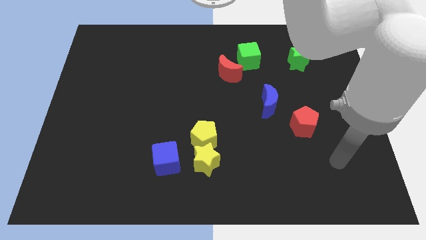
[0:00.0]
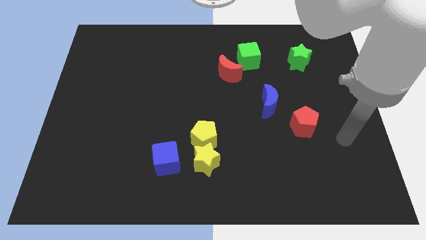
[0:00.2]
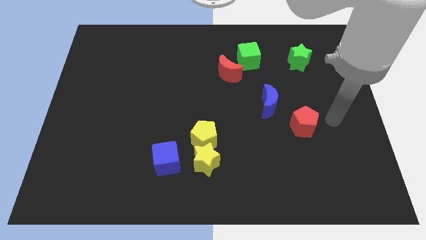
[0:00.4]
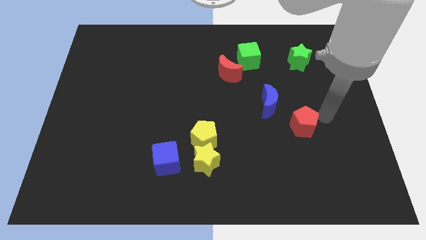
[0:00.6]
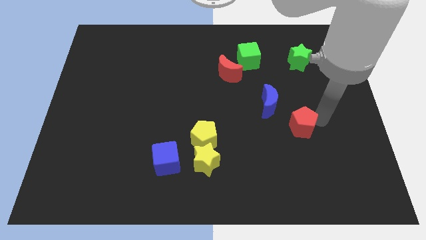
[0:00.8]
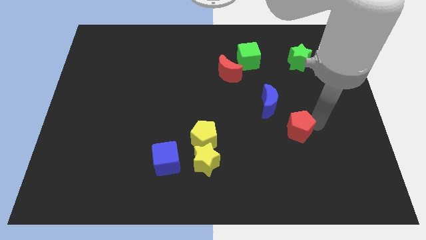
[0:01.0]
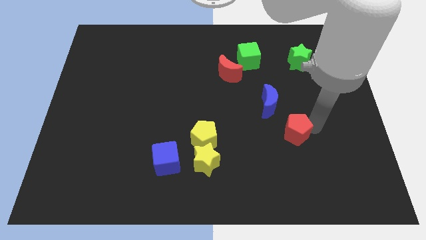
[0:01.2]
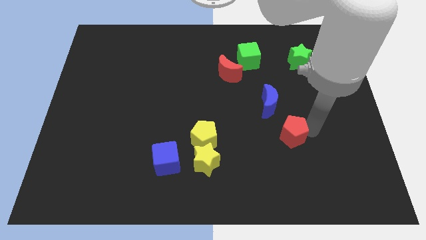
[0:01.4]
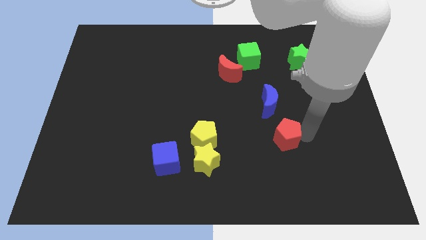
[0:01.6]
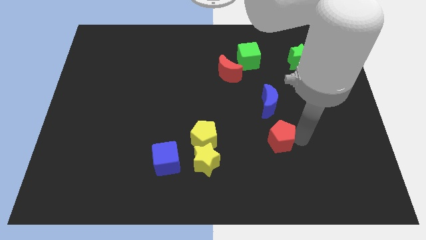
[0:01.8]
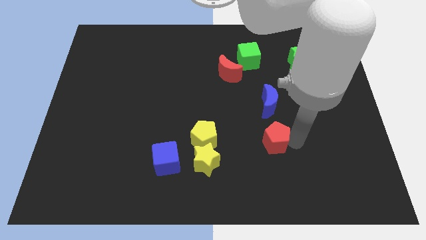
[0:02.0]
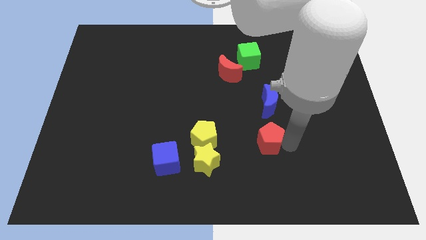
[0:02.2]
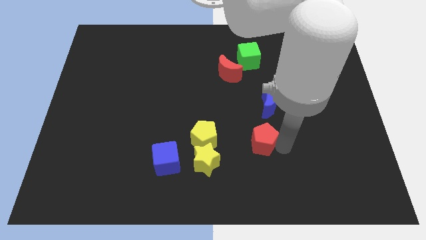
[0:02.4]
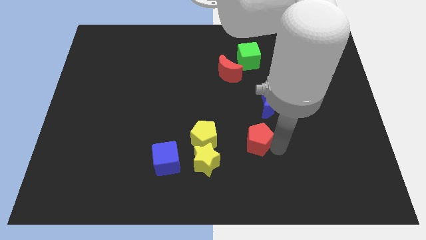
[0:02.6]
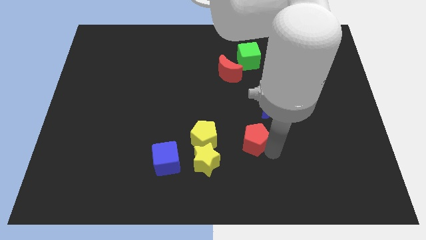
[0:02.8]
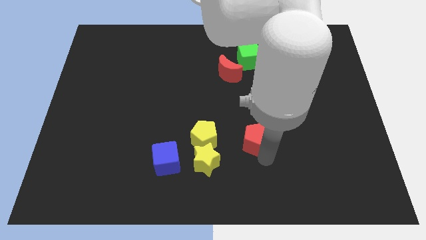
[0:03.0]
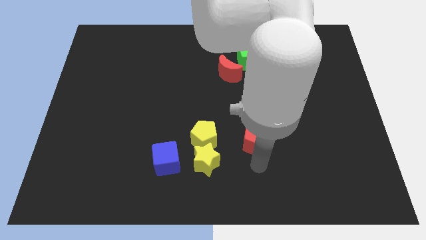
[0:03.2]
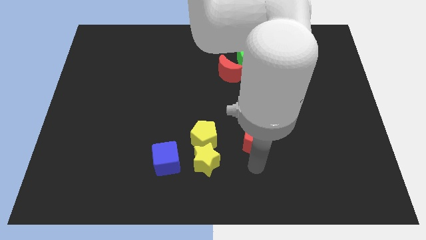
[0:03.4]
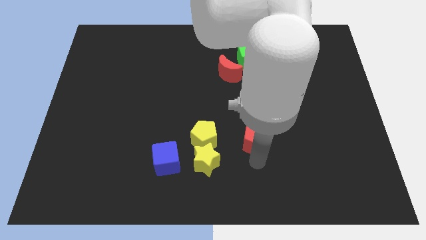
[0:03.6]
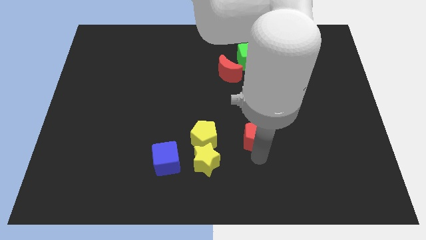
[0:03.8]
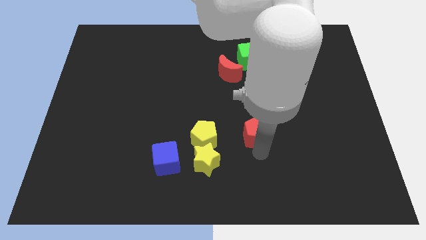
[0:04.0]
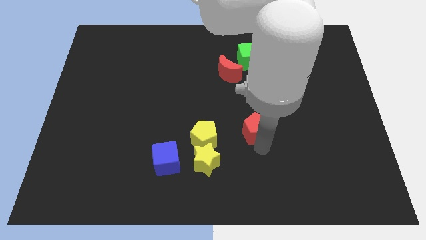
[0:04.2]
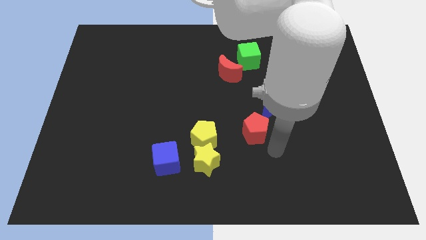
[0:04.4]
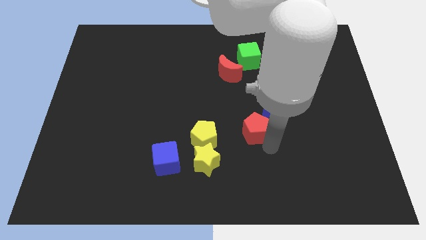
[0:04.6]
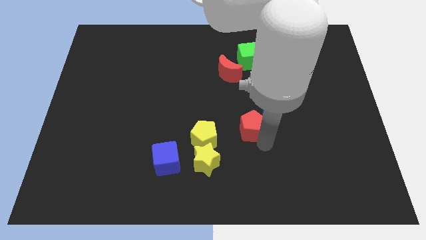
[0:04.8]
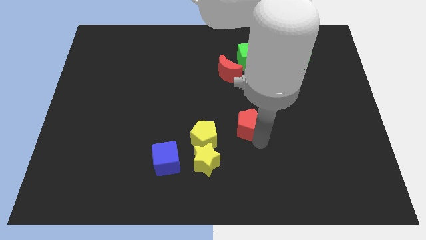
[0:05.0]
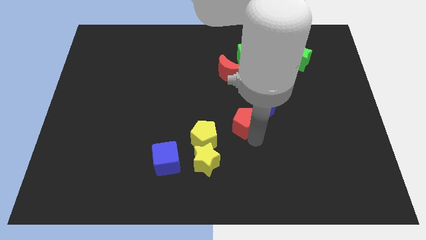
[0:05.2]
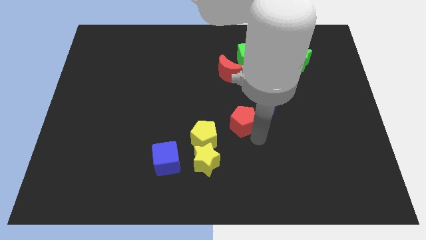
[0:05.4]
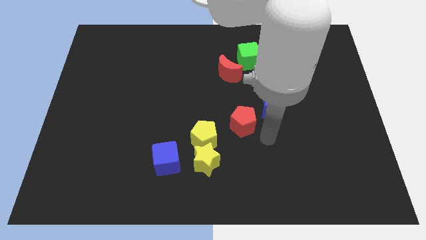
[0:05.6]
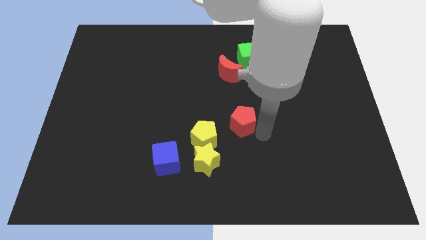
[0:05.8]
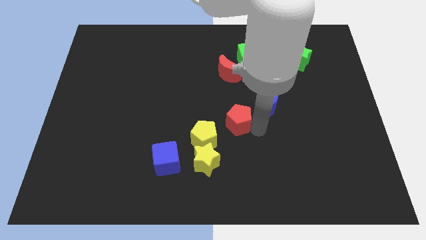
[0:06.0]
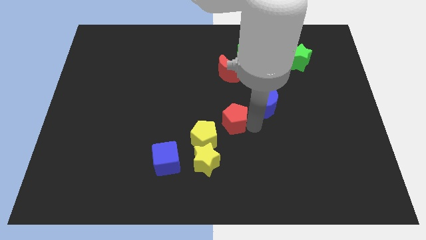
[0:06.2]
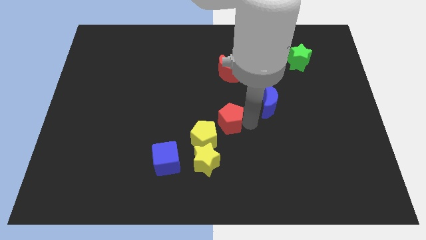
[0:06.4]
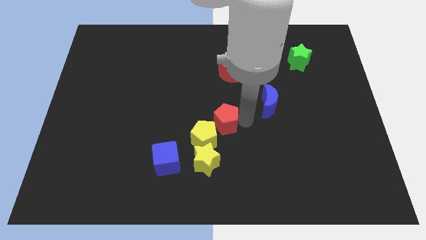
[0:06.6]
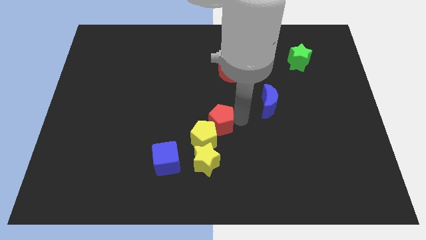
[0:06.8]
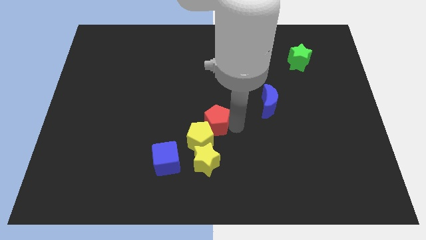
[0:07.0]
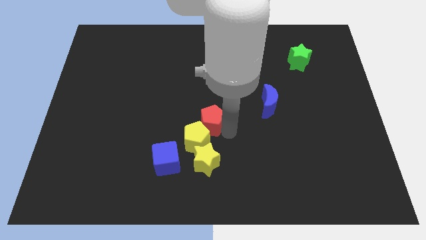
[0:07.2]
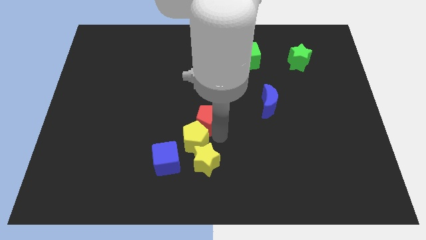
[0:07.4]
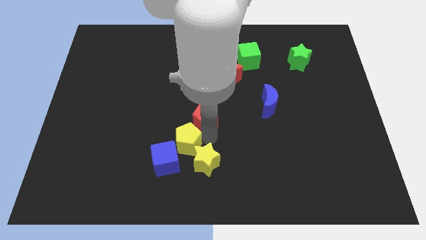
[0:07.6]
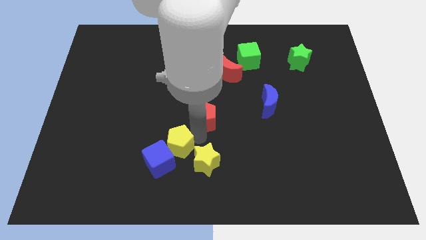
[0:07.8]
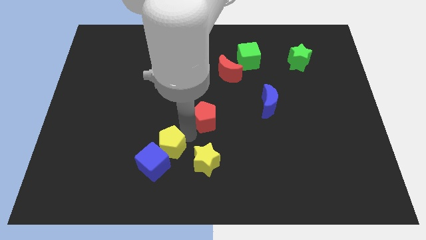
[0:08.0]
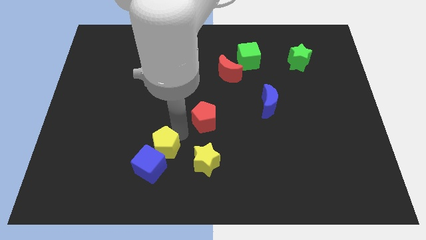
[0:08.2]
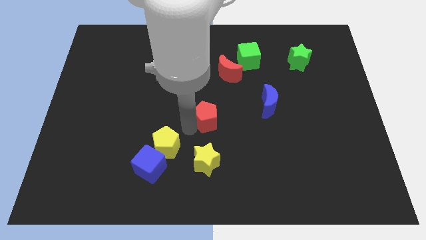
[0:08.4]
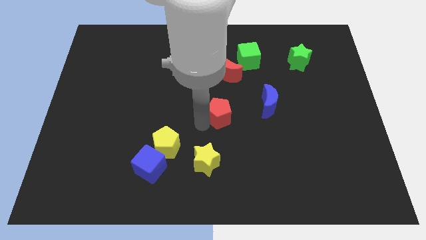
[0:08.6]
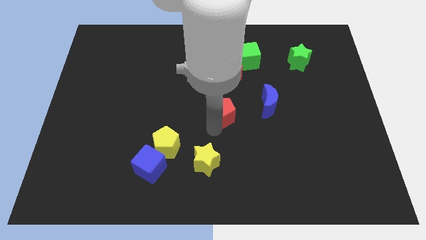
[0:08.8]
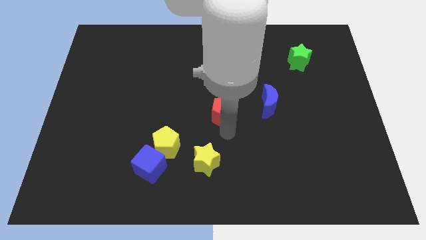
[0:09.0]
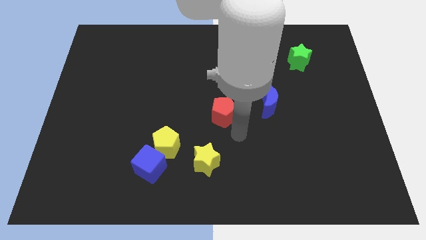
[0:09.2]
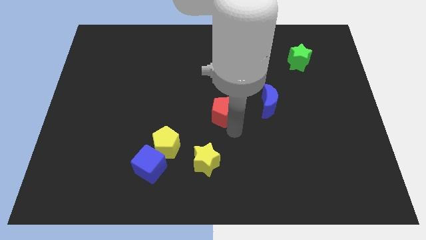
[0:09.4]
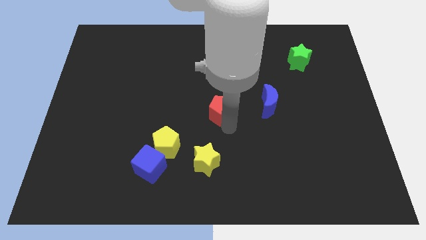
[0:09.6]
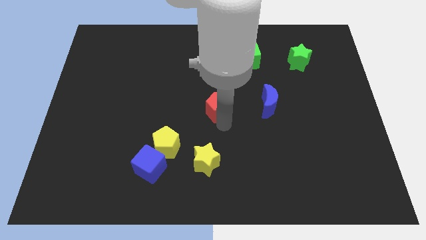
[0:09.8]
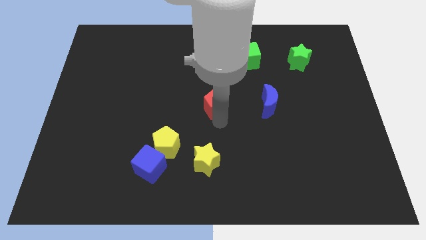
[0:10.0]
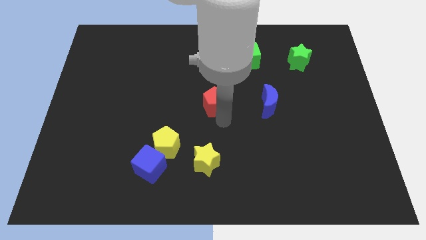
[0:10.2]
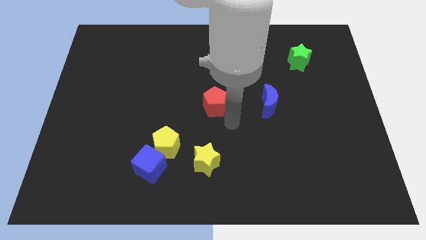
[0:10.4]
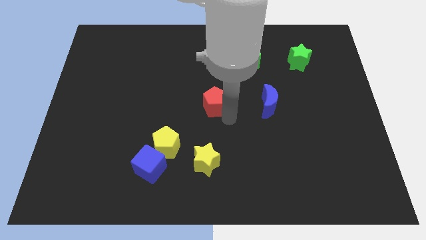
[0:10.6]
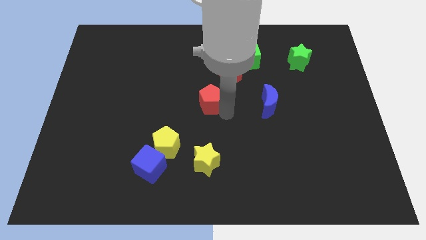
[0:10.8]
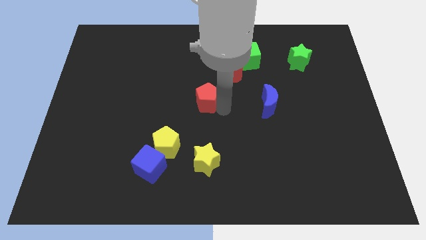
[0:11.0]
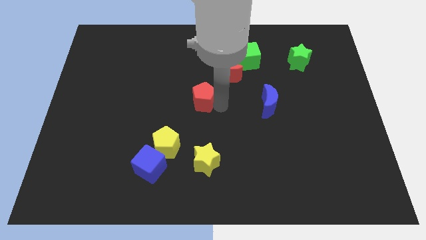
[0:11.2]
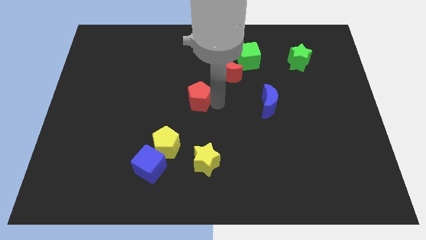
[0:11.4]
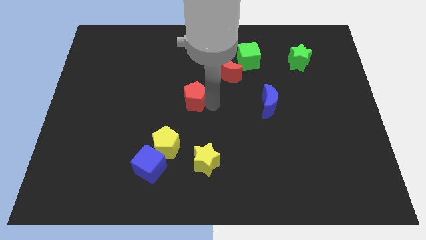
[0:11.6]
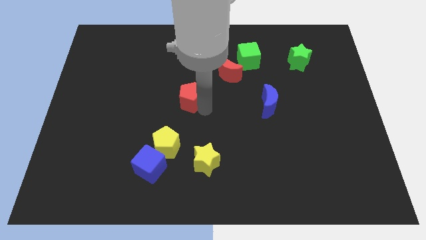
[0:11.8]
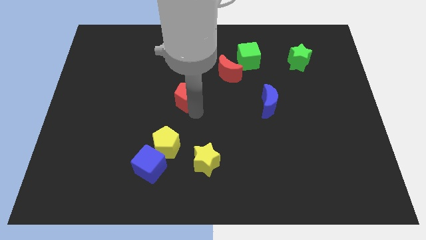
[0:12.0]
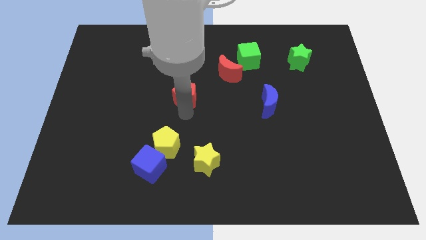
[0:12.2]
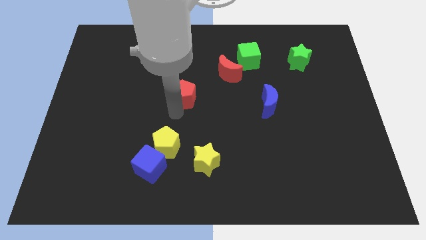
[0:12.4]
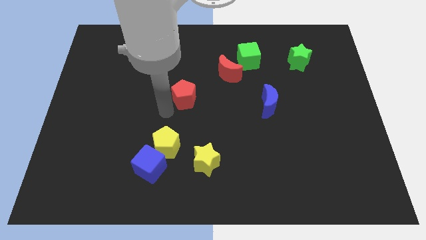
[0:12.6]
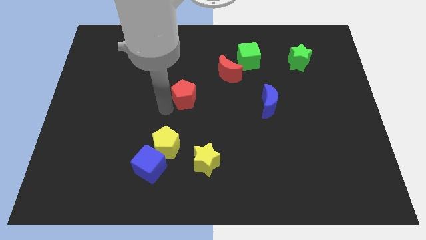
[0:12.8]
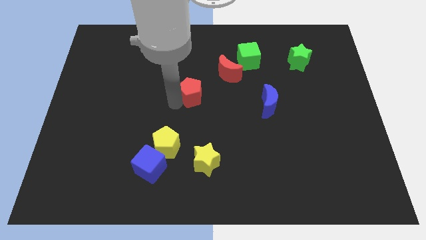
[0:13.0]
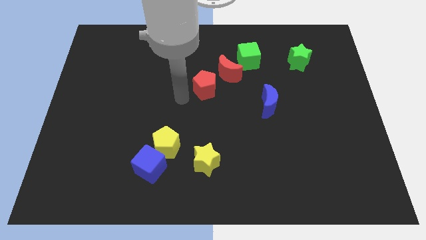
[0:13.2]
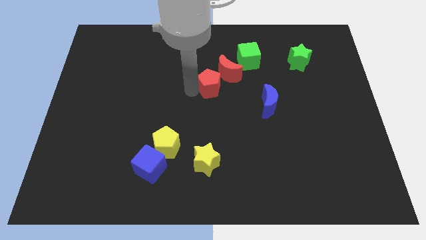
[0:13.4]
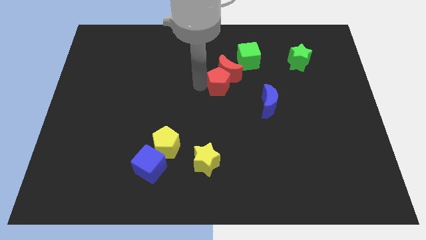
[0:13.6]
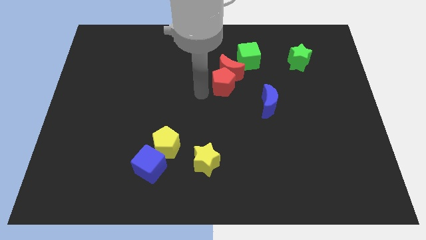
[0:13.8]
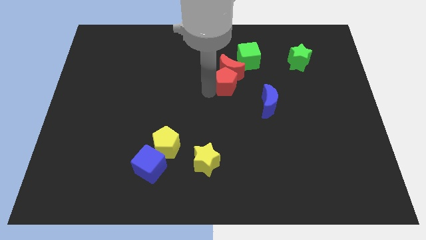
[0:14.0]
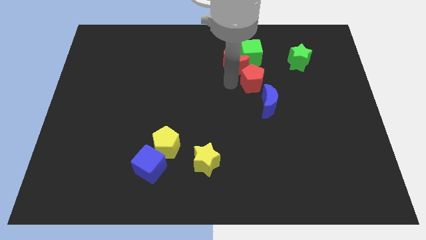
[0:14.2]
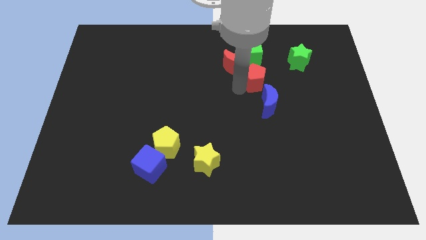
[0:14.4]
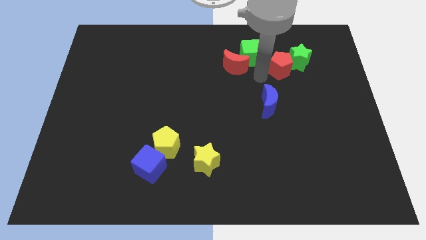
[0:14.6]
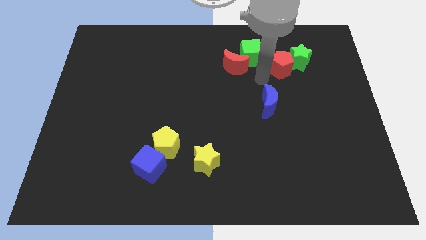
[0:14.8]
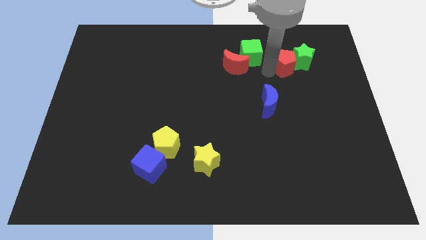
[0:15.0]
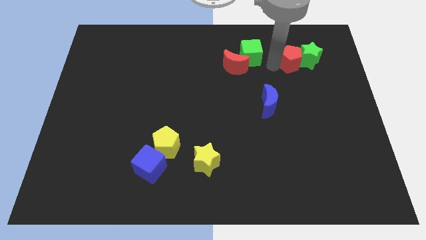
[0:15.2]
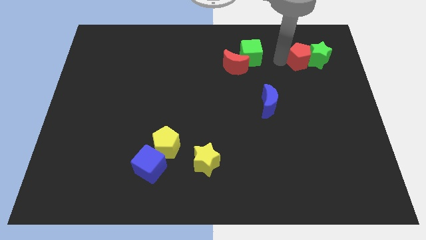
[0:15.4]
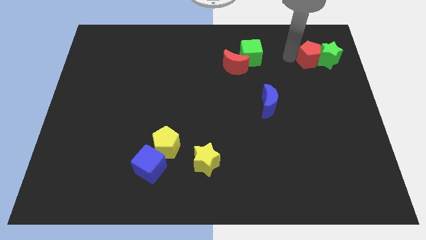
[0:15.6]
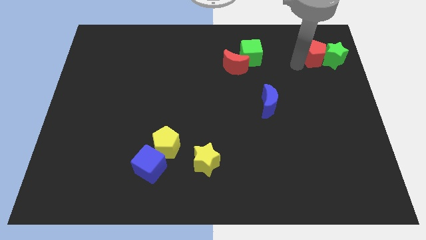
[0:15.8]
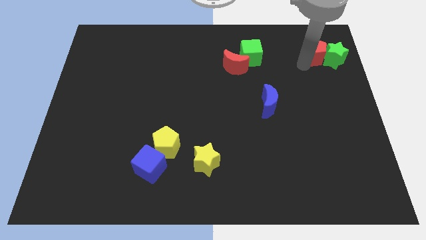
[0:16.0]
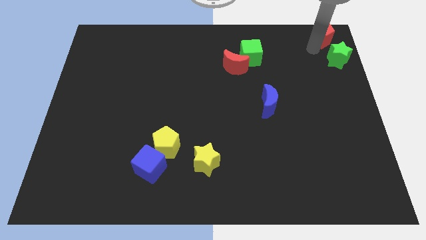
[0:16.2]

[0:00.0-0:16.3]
put the red pentagon to the top right
